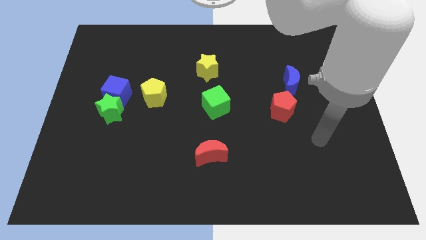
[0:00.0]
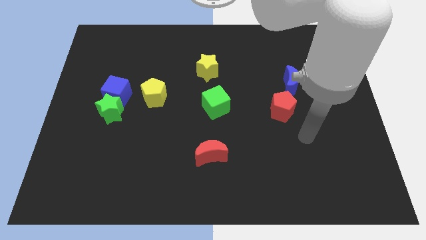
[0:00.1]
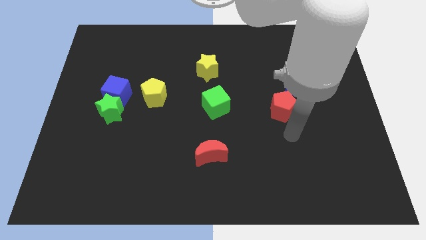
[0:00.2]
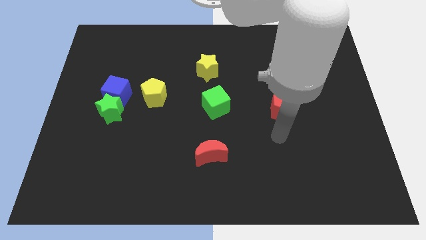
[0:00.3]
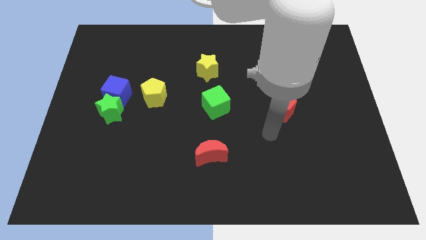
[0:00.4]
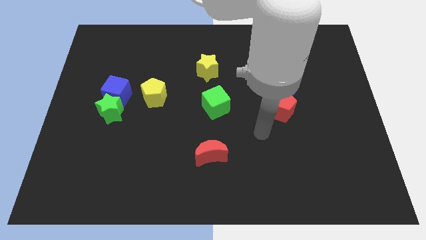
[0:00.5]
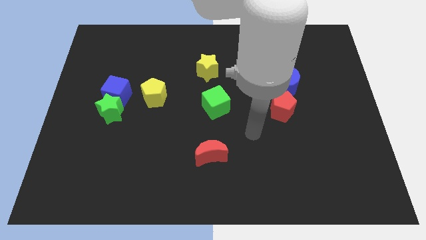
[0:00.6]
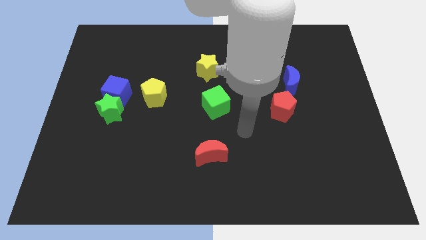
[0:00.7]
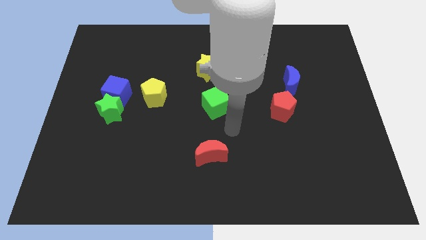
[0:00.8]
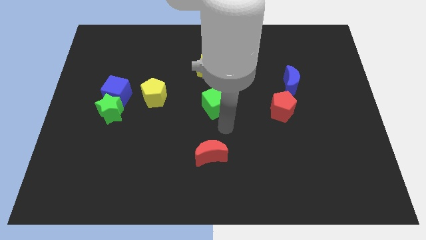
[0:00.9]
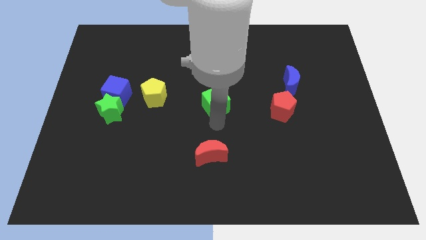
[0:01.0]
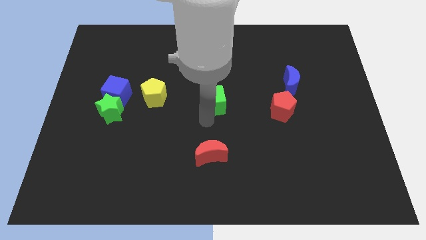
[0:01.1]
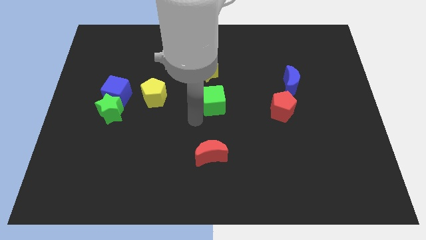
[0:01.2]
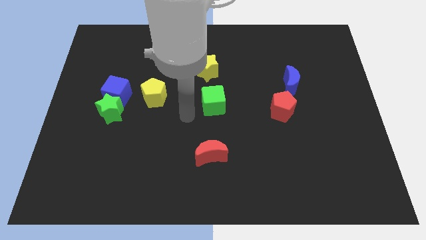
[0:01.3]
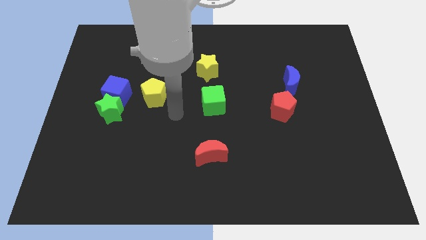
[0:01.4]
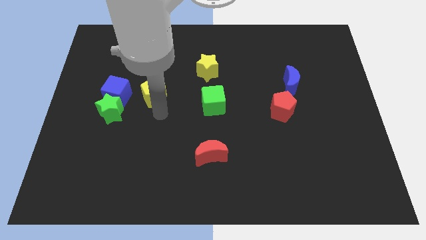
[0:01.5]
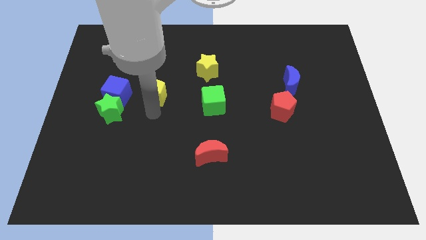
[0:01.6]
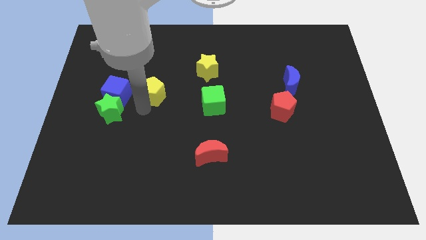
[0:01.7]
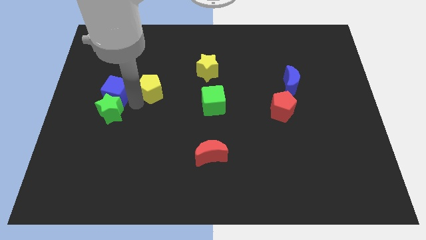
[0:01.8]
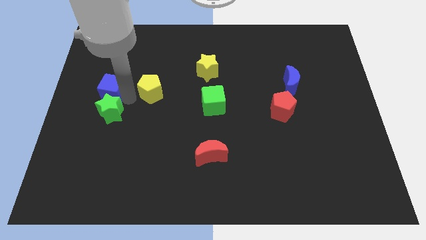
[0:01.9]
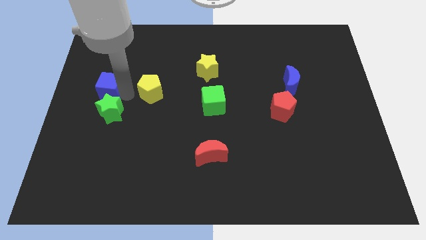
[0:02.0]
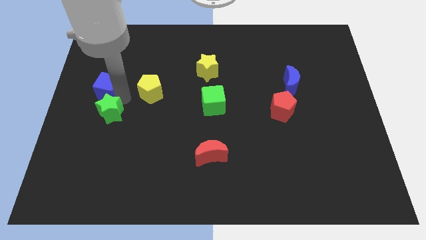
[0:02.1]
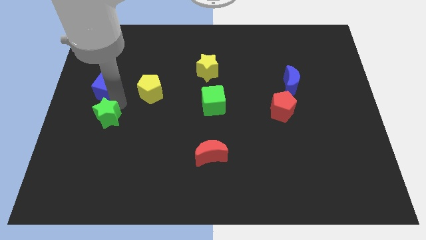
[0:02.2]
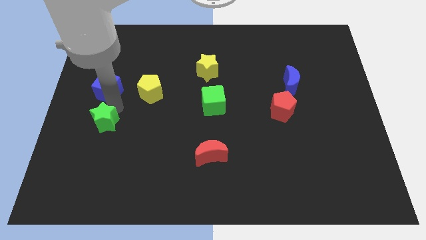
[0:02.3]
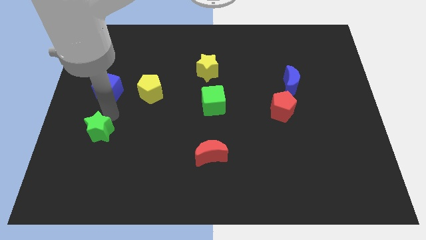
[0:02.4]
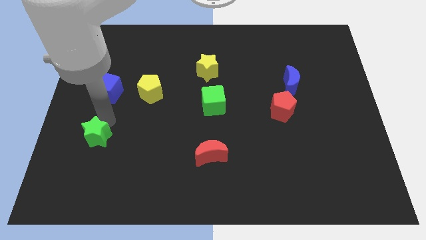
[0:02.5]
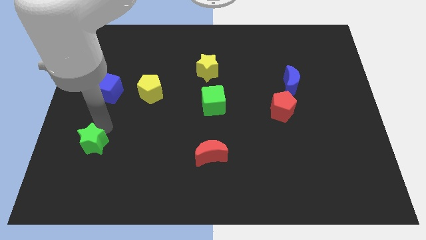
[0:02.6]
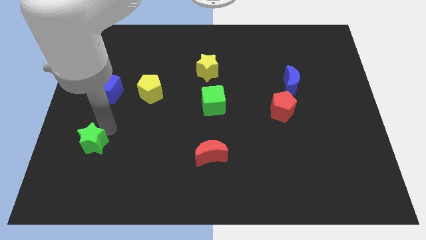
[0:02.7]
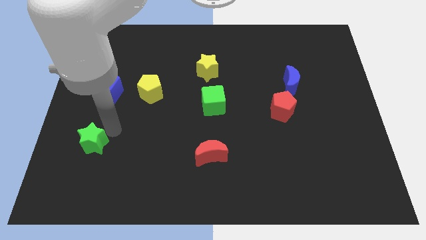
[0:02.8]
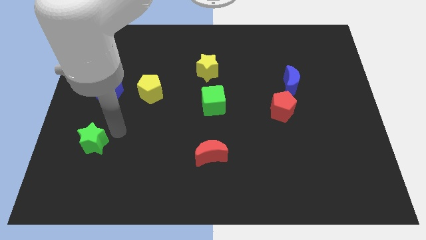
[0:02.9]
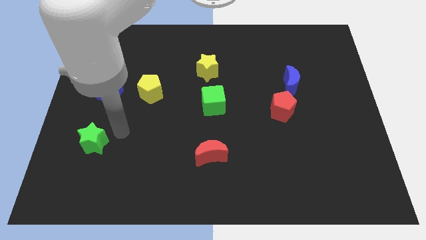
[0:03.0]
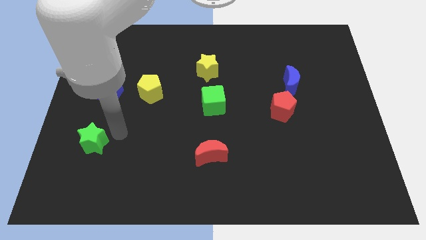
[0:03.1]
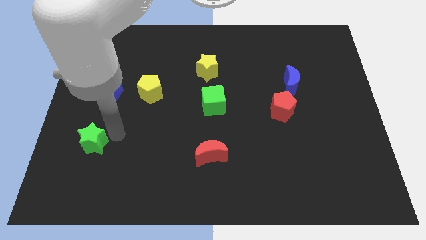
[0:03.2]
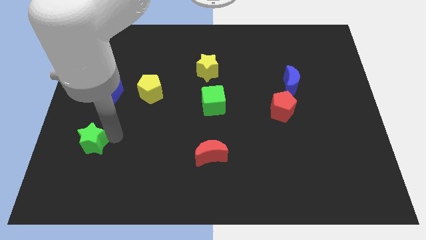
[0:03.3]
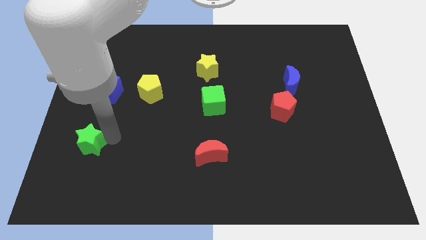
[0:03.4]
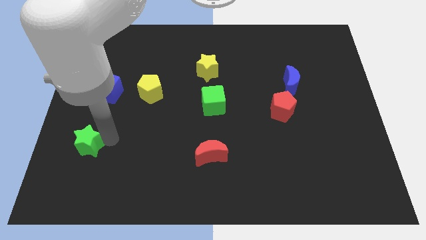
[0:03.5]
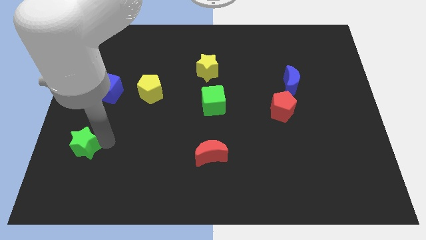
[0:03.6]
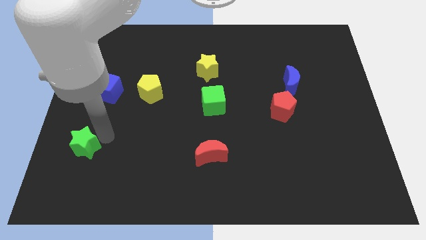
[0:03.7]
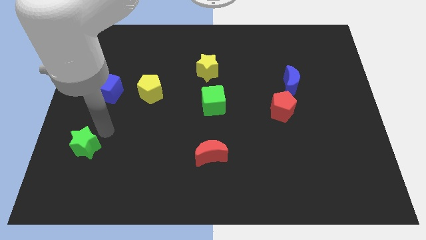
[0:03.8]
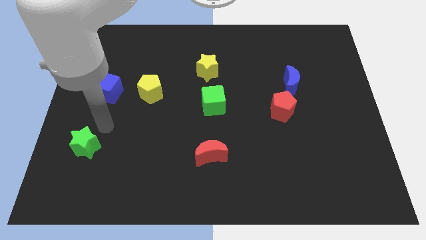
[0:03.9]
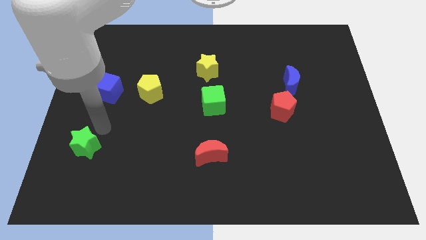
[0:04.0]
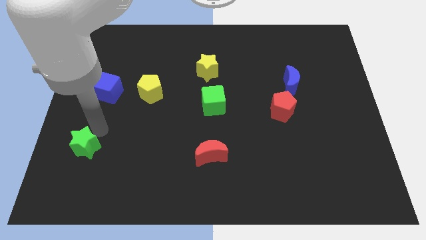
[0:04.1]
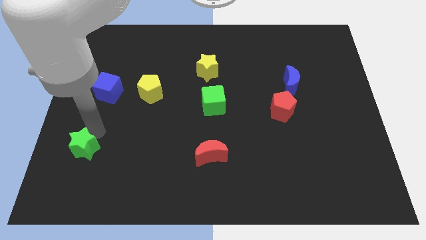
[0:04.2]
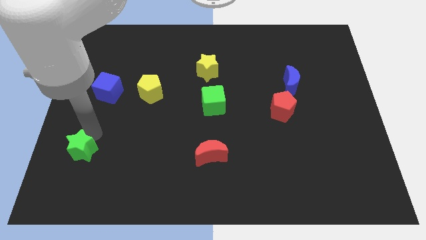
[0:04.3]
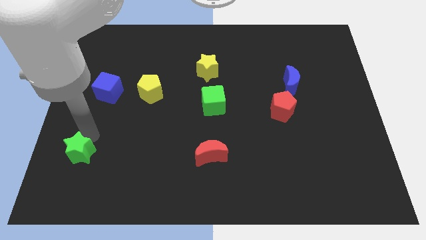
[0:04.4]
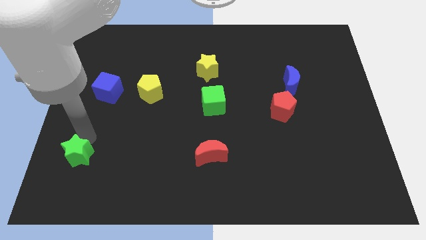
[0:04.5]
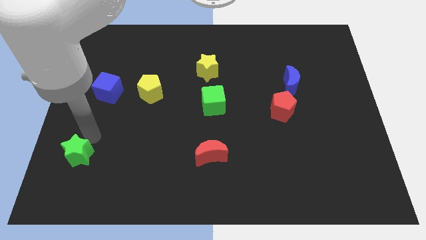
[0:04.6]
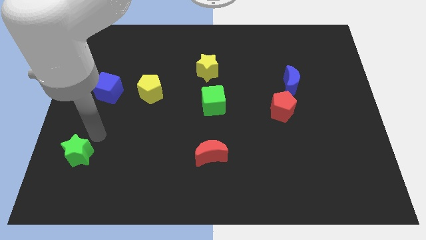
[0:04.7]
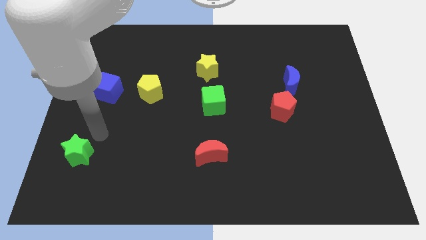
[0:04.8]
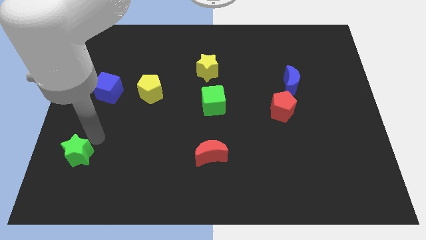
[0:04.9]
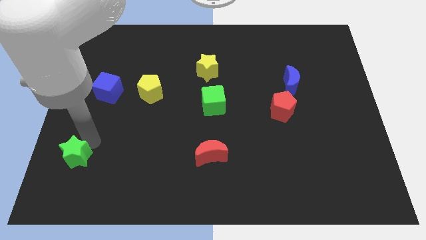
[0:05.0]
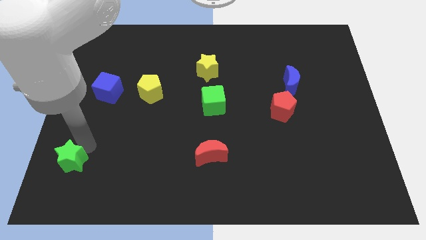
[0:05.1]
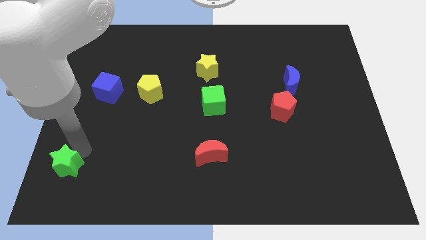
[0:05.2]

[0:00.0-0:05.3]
move the green star to the bottom left corner
